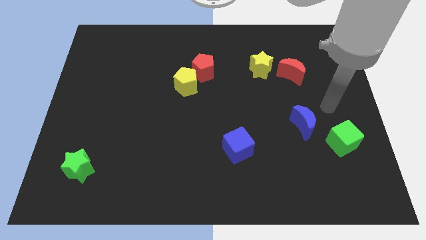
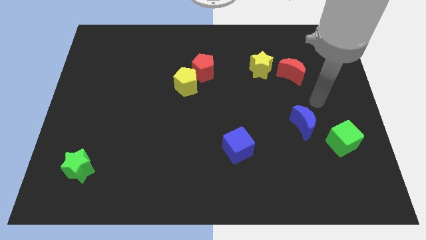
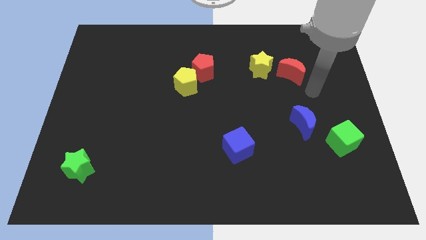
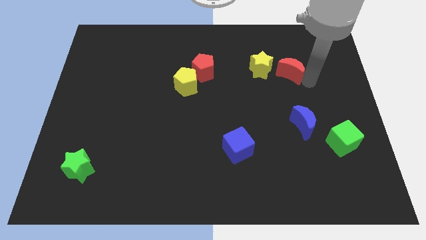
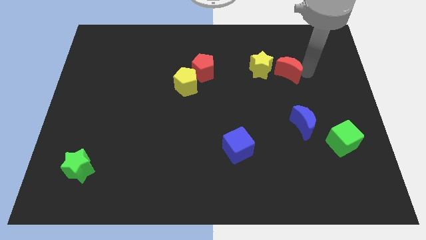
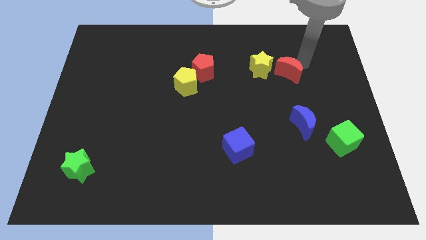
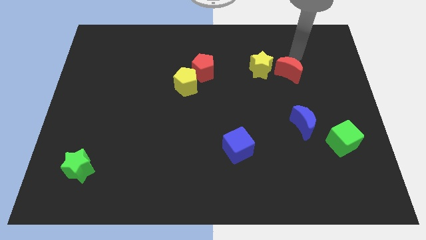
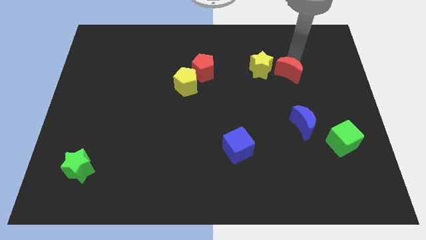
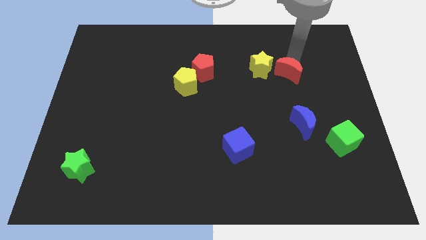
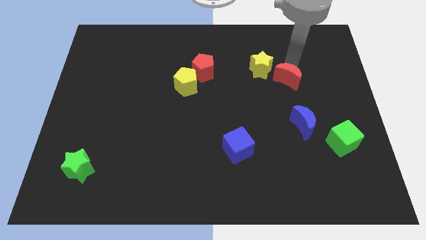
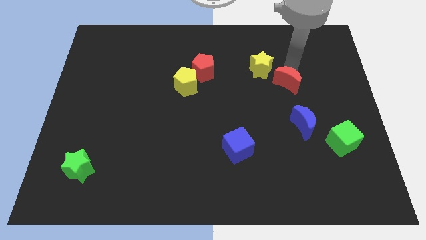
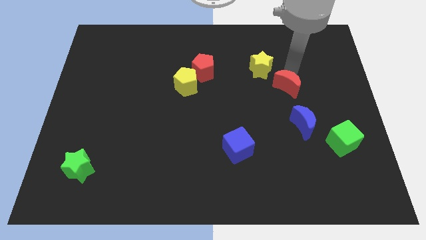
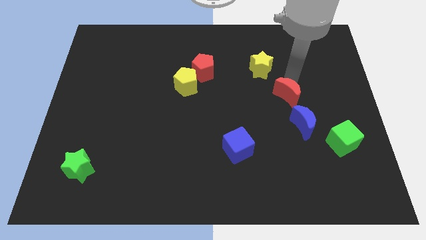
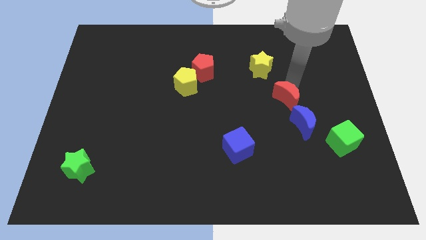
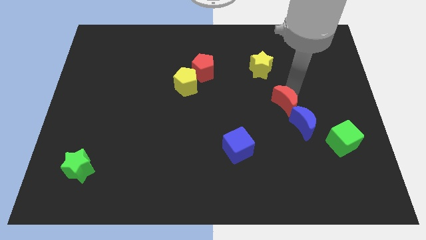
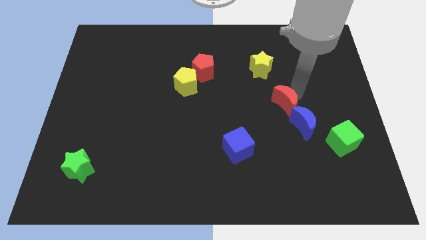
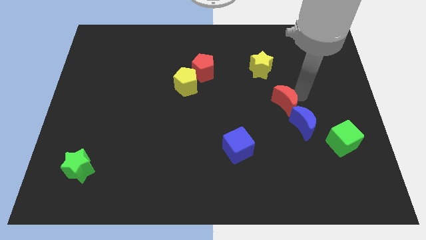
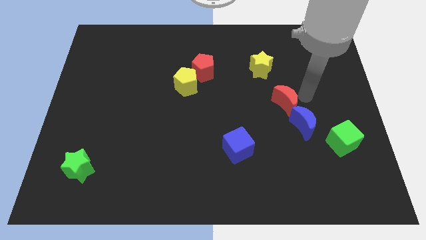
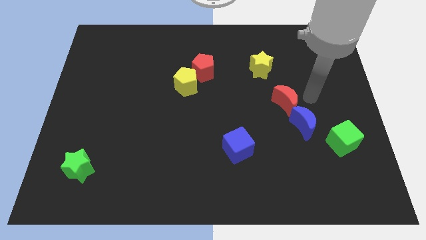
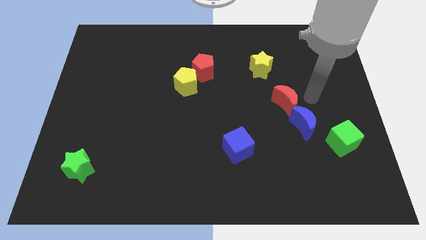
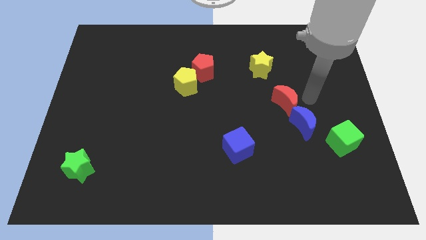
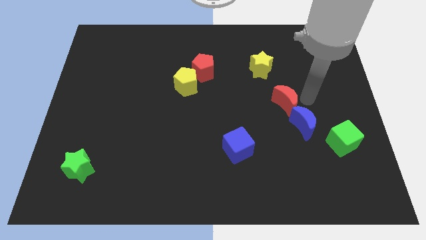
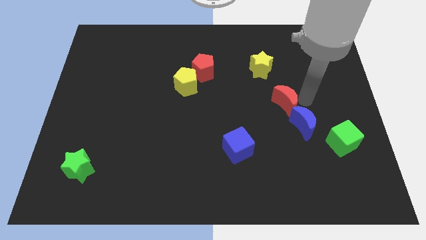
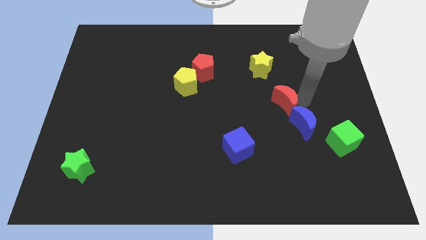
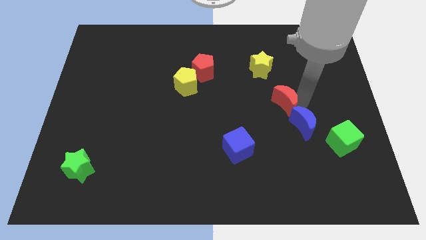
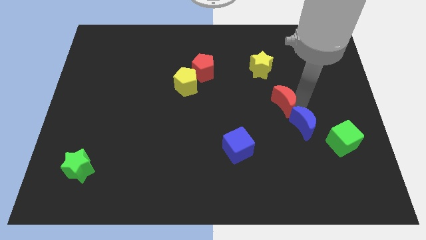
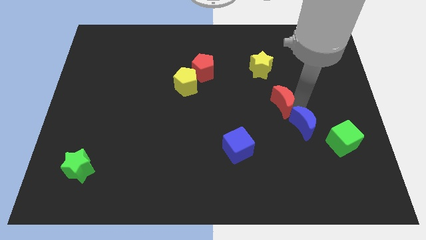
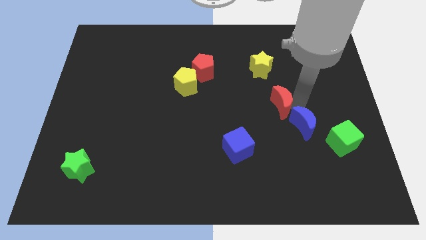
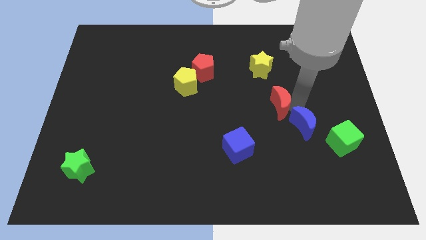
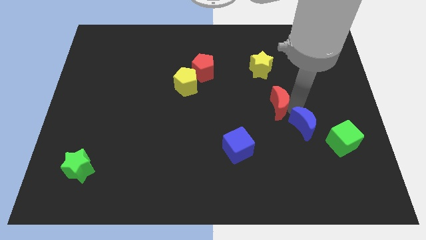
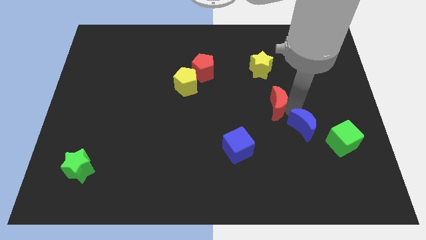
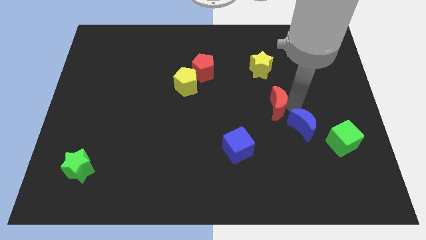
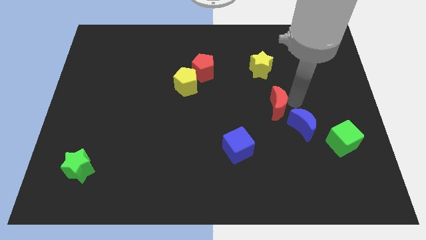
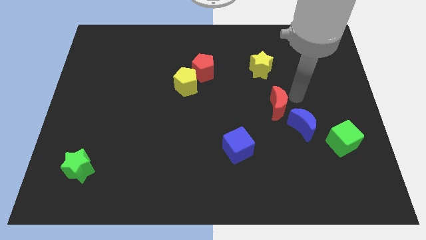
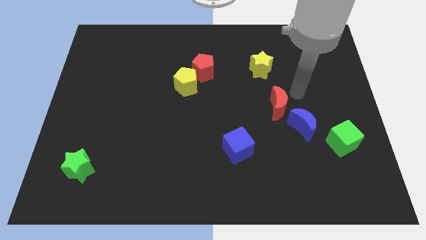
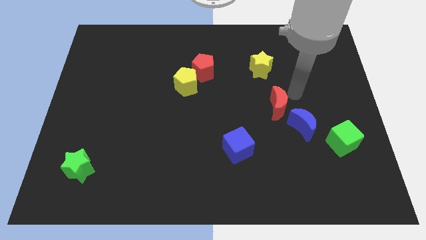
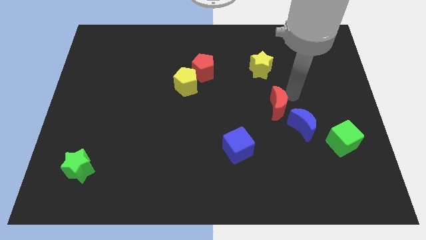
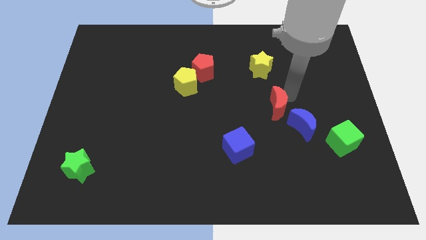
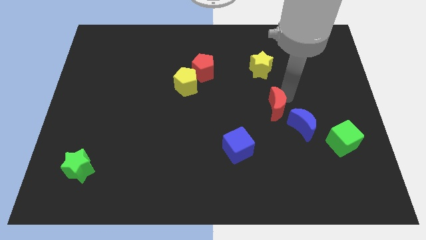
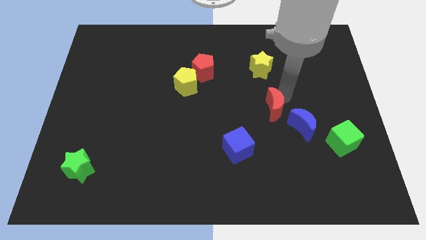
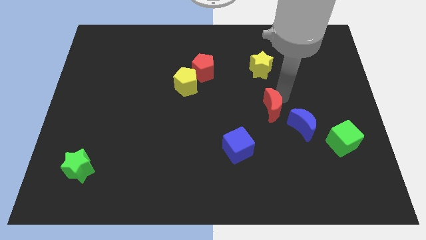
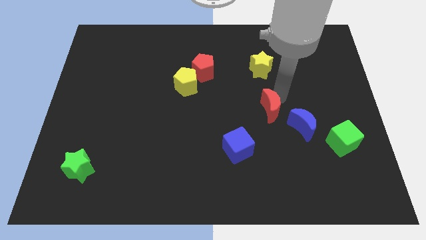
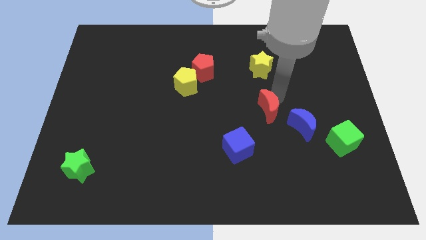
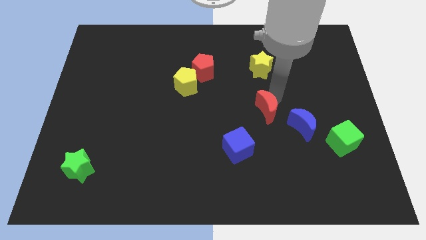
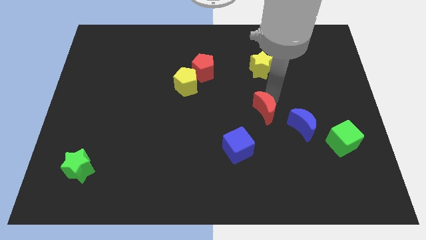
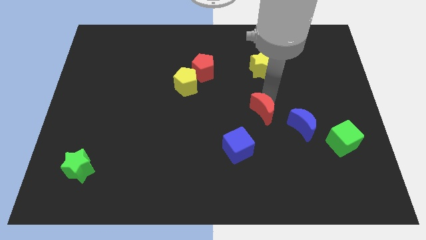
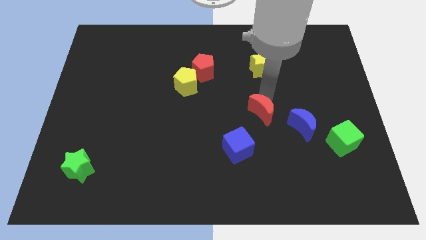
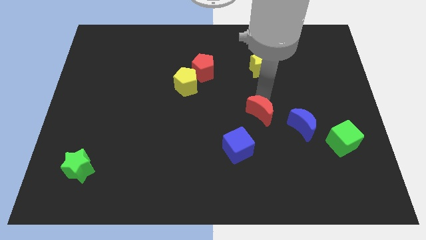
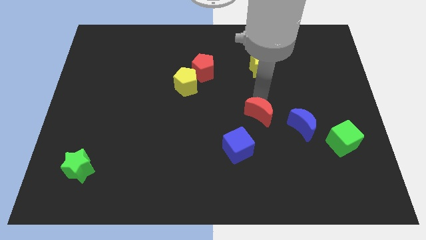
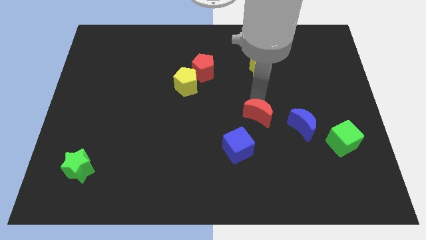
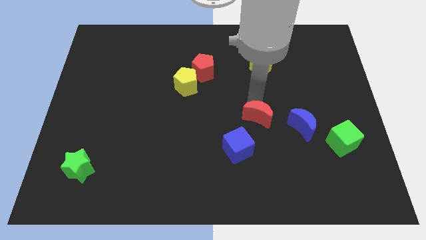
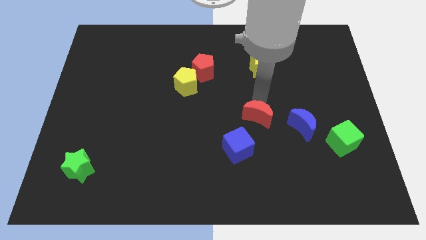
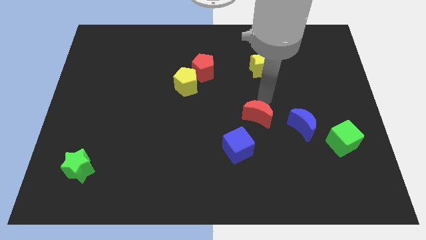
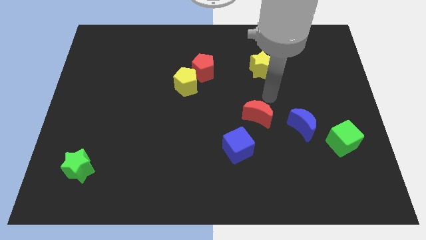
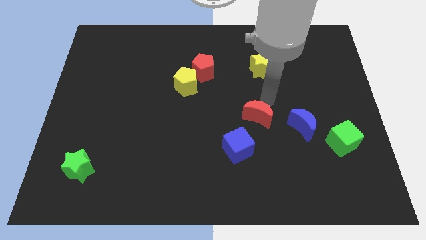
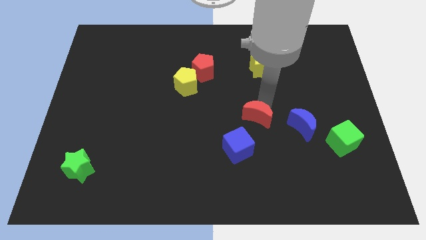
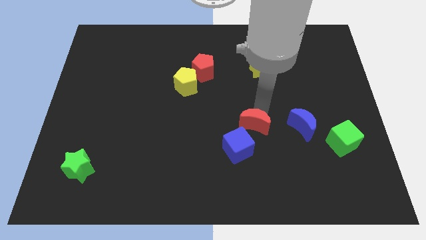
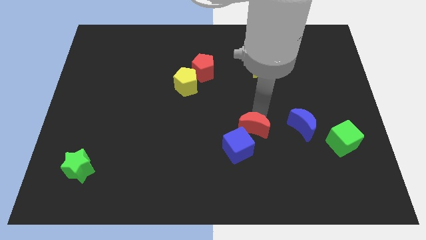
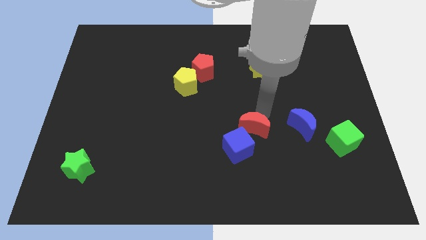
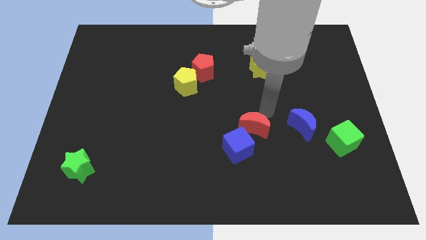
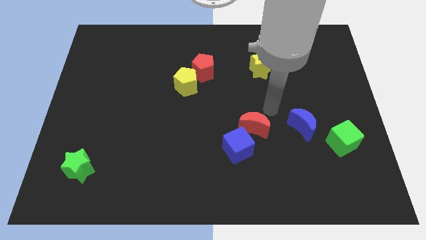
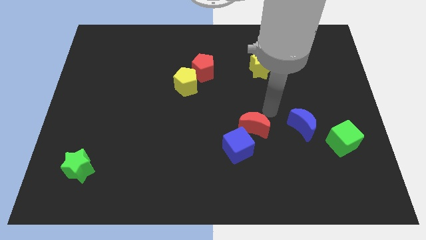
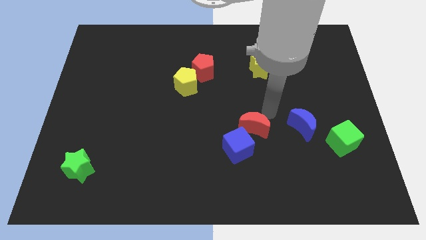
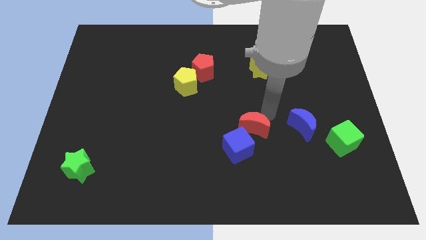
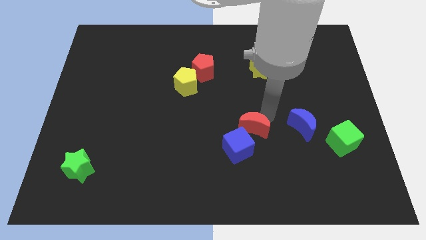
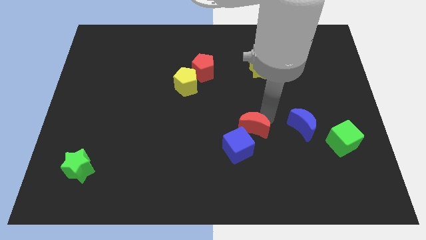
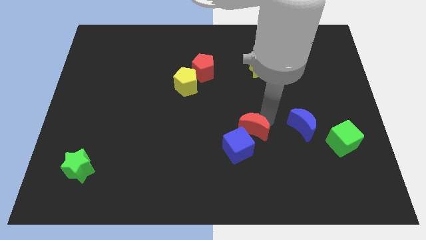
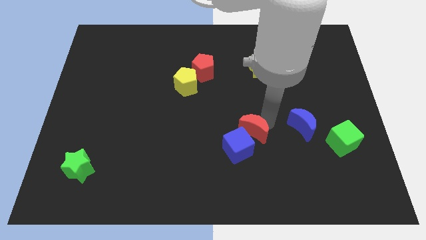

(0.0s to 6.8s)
put the red moon to the blue cube

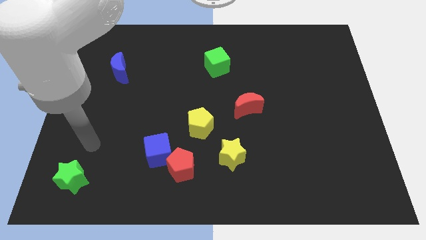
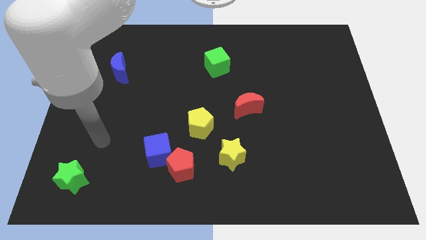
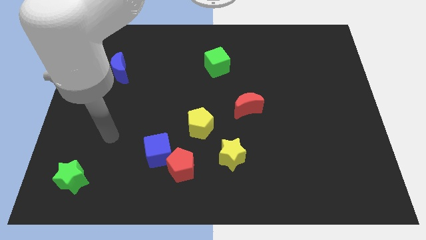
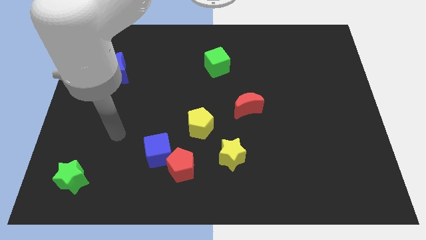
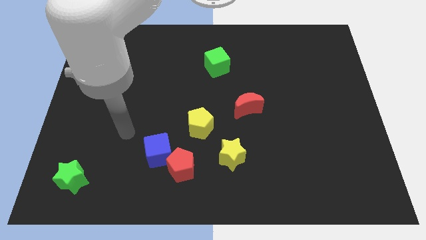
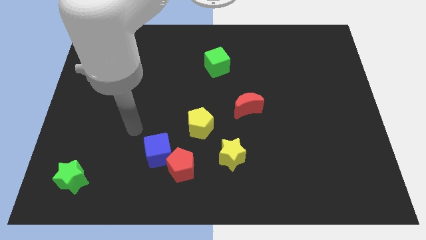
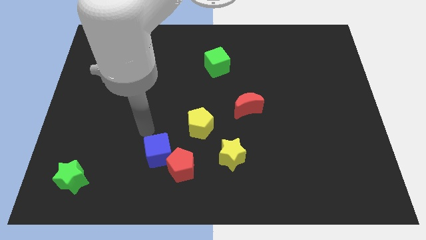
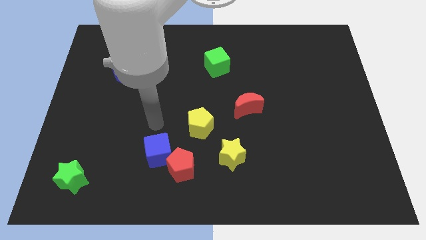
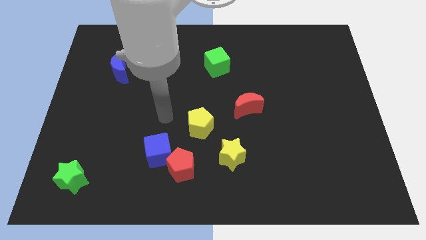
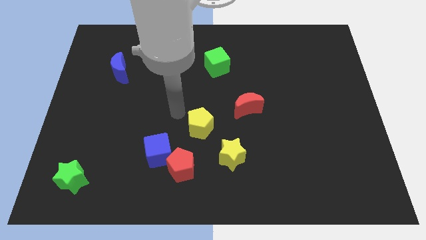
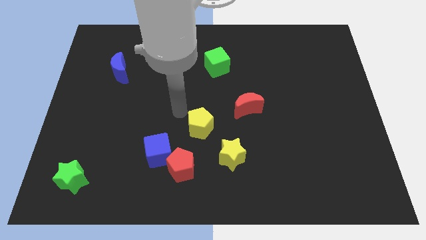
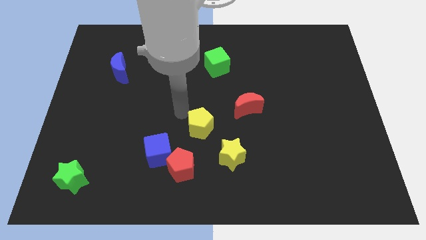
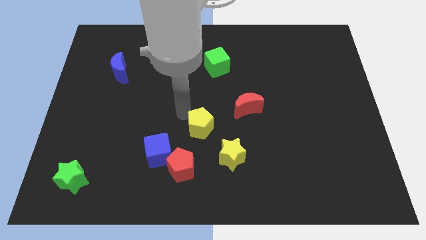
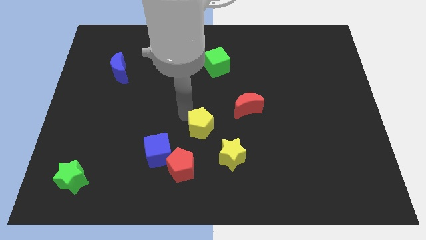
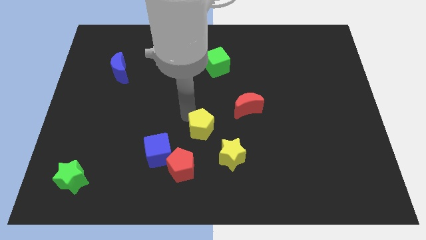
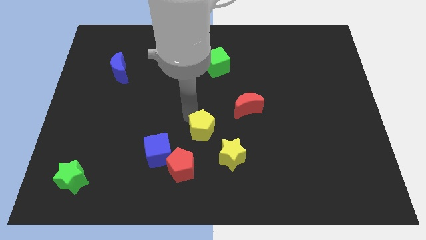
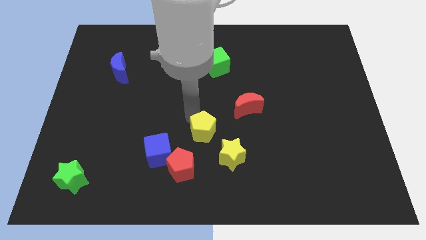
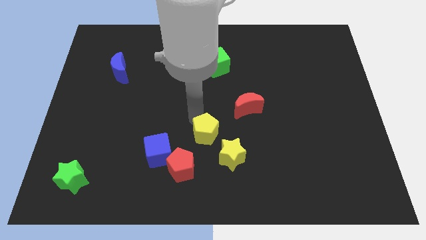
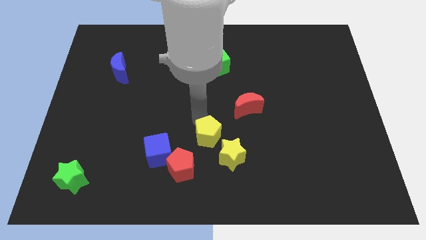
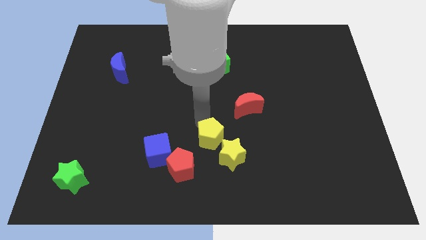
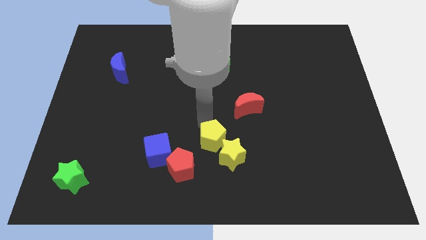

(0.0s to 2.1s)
push the yellow pentagon next to the yellow star
